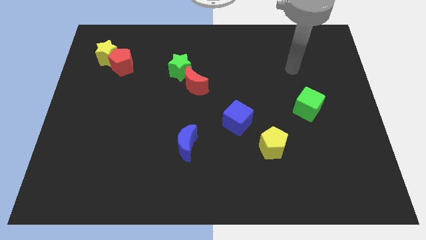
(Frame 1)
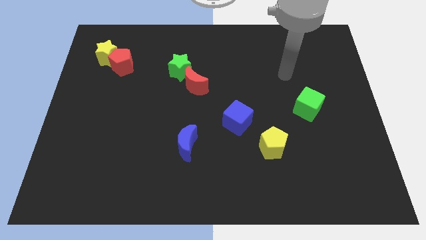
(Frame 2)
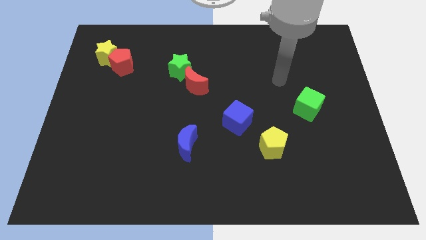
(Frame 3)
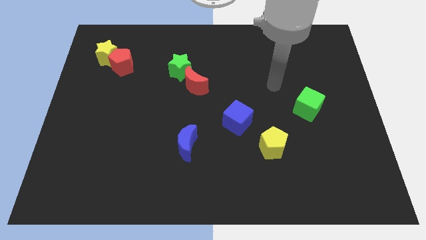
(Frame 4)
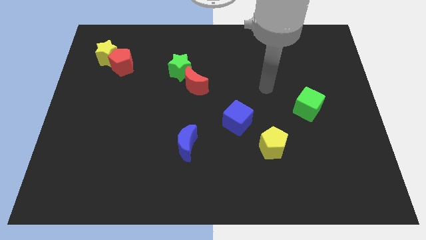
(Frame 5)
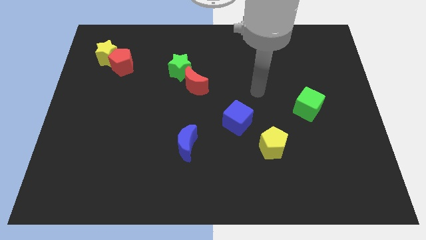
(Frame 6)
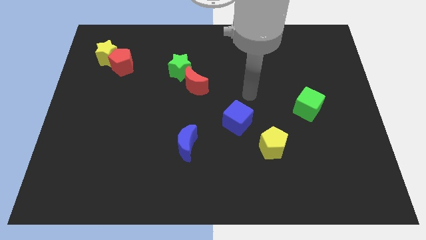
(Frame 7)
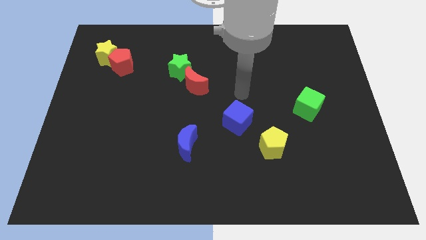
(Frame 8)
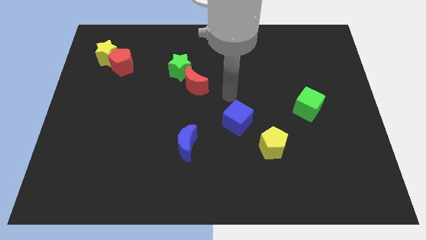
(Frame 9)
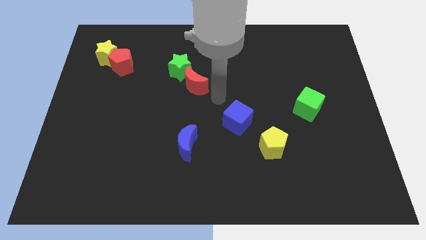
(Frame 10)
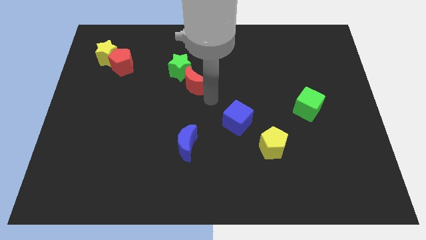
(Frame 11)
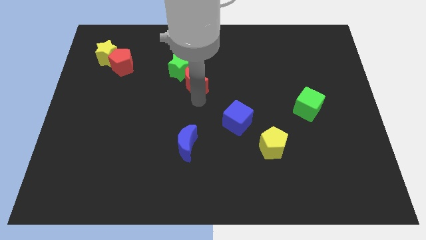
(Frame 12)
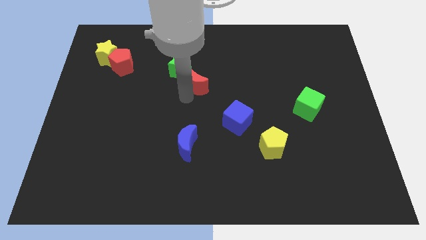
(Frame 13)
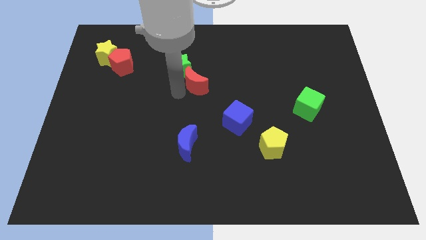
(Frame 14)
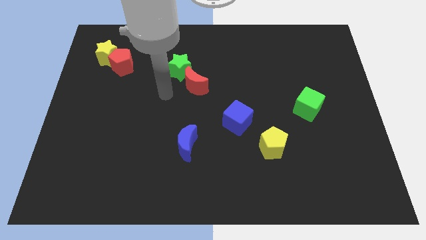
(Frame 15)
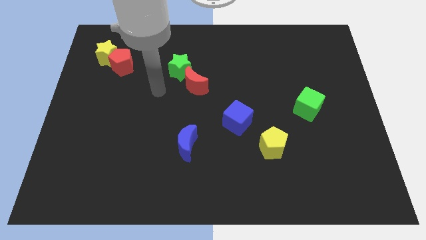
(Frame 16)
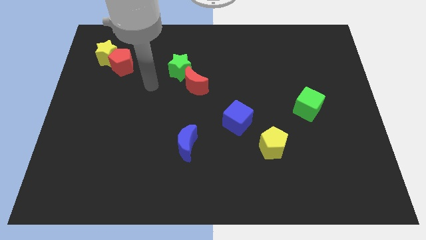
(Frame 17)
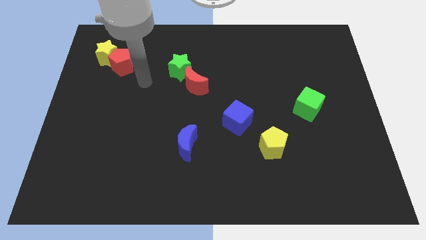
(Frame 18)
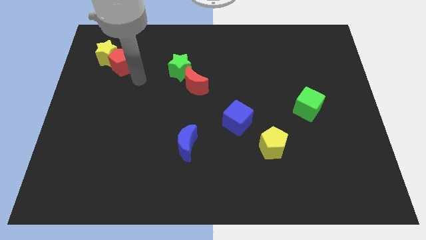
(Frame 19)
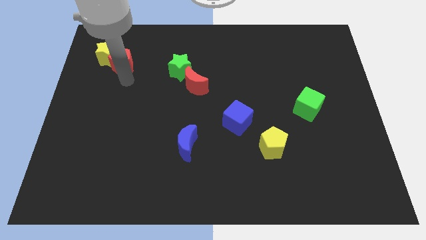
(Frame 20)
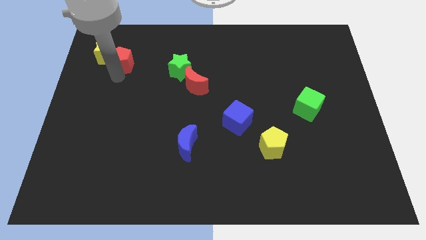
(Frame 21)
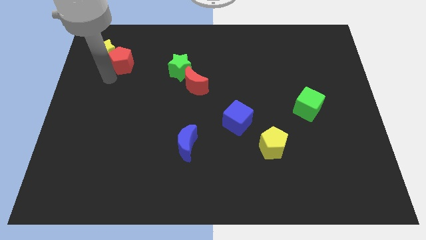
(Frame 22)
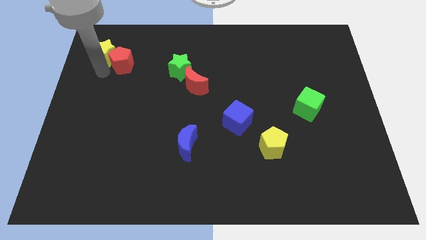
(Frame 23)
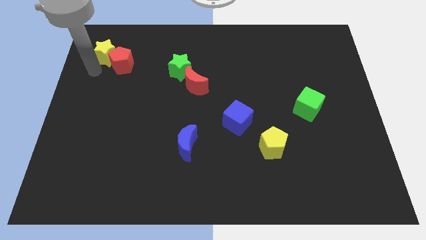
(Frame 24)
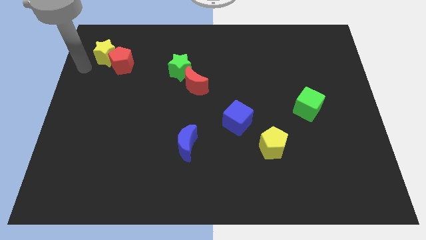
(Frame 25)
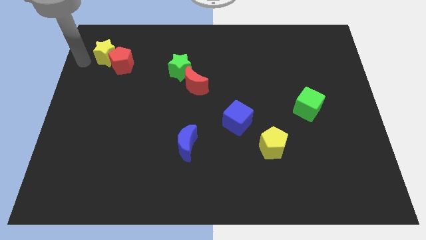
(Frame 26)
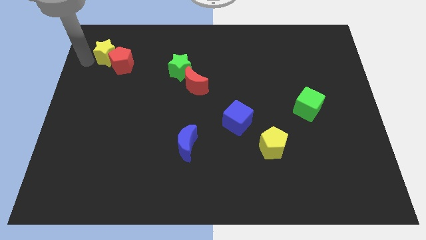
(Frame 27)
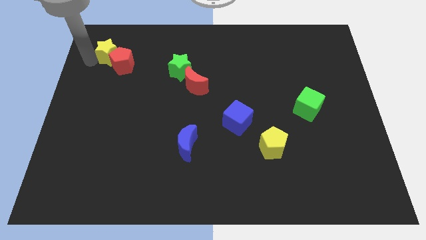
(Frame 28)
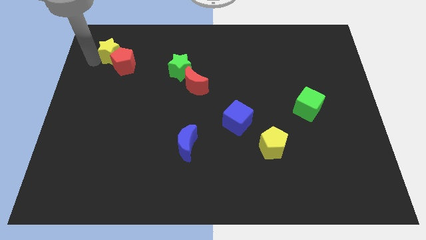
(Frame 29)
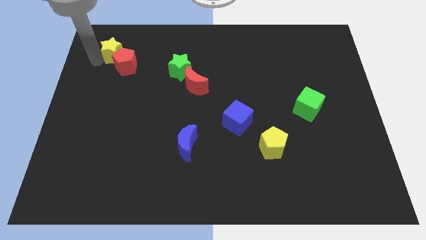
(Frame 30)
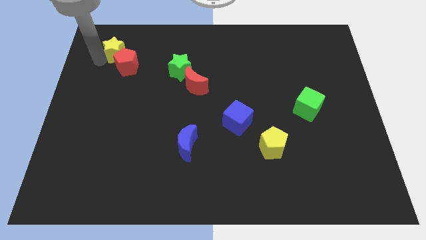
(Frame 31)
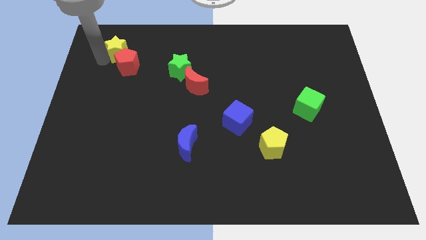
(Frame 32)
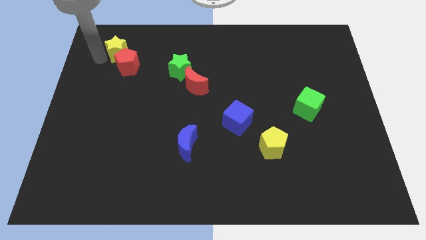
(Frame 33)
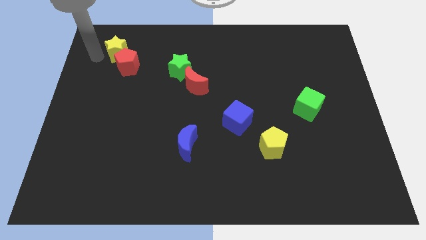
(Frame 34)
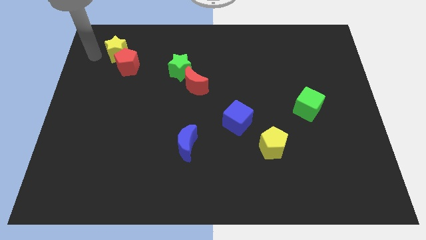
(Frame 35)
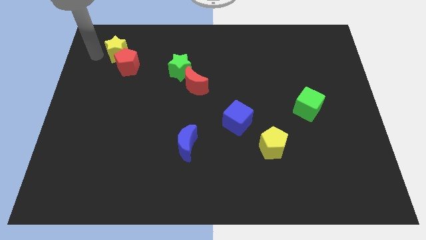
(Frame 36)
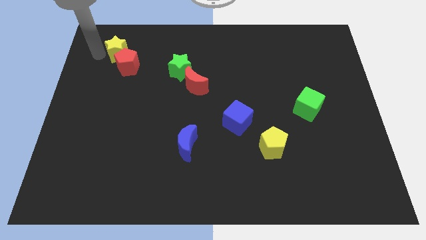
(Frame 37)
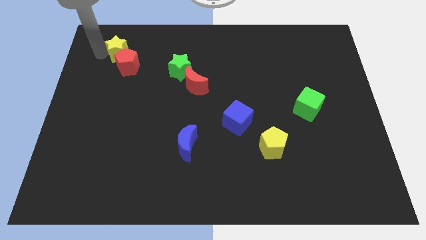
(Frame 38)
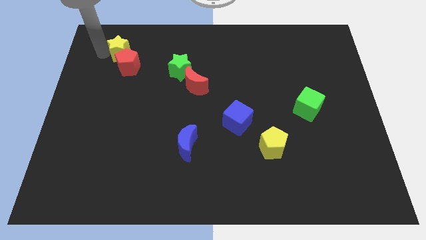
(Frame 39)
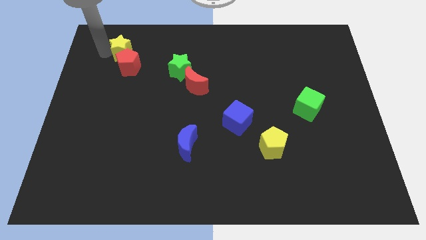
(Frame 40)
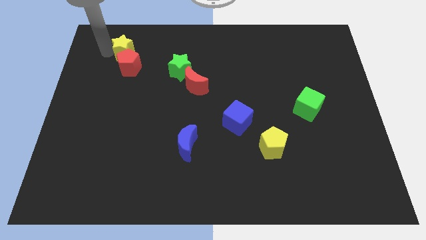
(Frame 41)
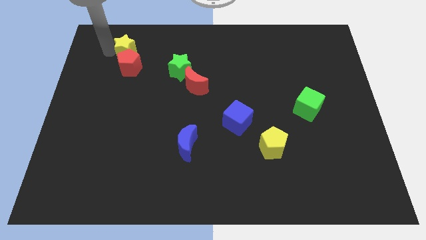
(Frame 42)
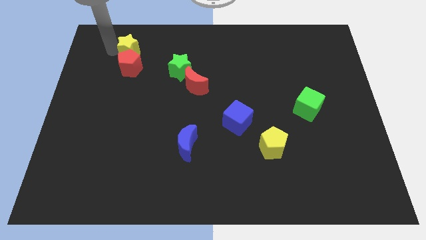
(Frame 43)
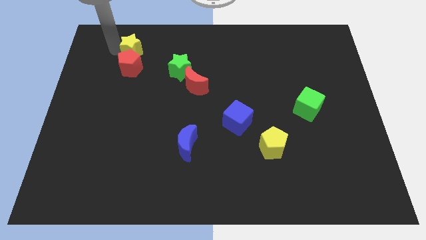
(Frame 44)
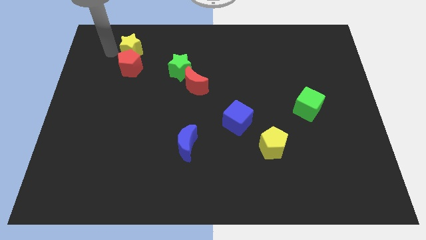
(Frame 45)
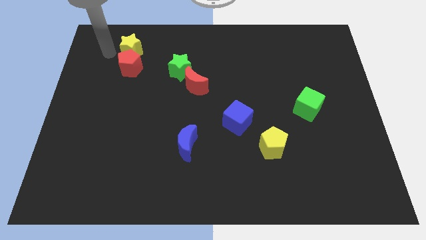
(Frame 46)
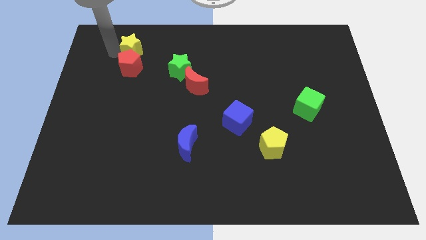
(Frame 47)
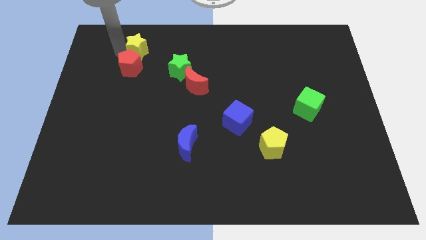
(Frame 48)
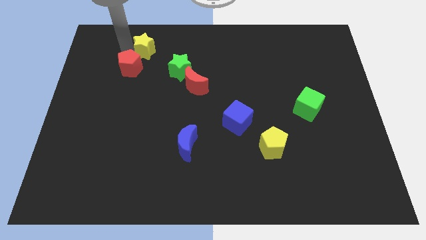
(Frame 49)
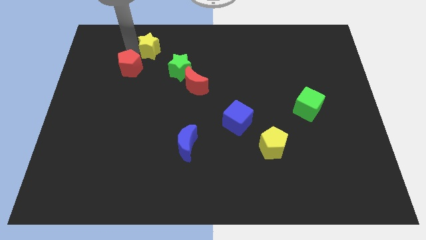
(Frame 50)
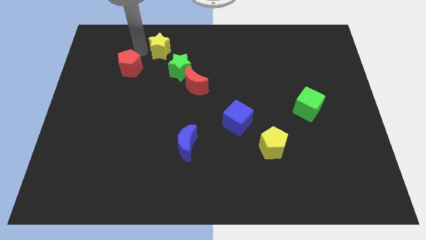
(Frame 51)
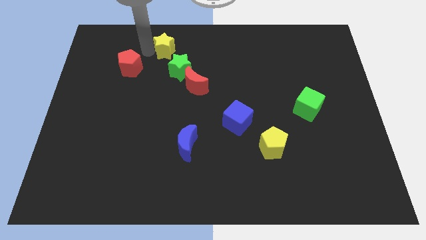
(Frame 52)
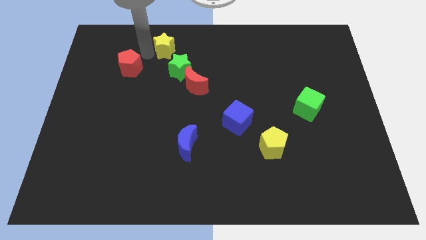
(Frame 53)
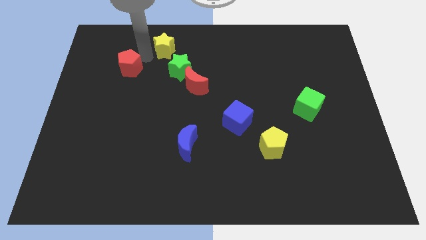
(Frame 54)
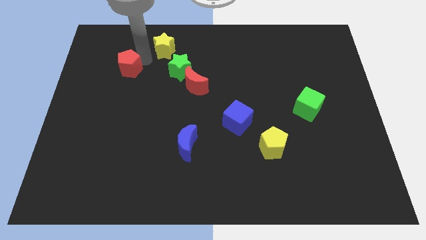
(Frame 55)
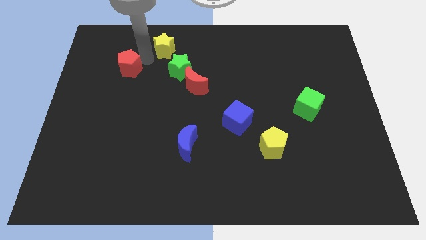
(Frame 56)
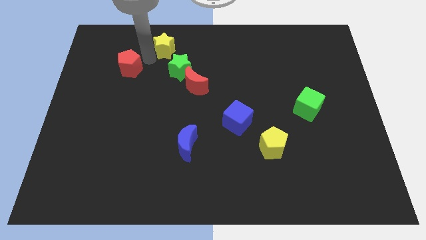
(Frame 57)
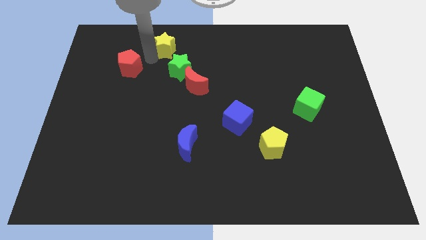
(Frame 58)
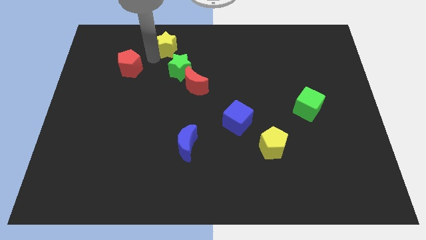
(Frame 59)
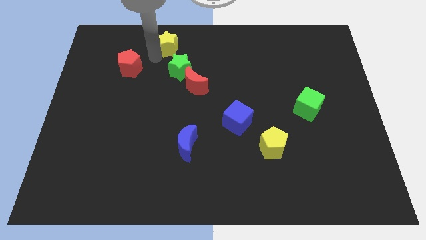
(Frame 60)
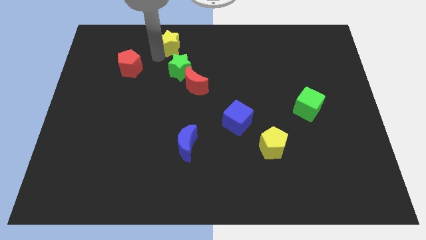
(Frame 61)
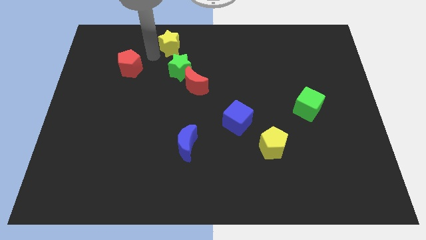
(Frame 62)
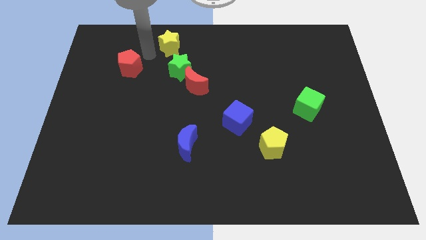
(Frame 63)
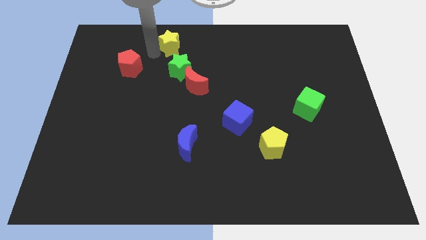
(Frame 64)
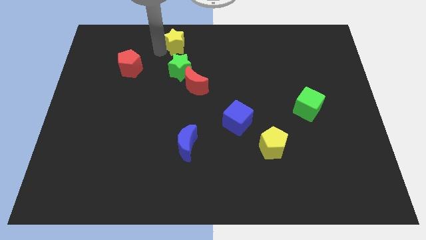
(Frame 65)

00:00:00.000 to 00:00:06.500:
move the yellow star to the top side
